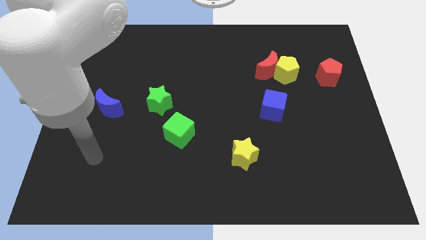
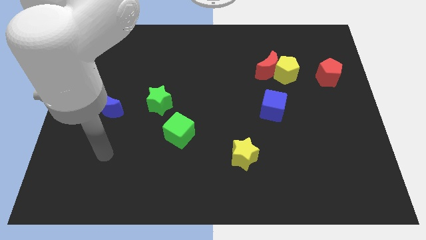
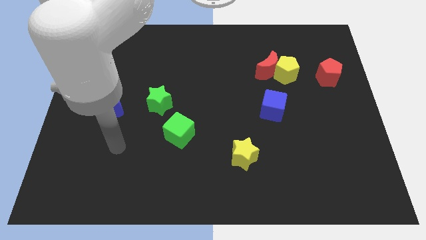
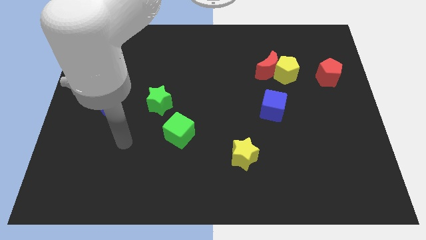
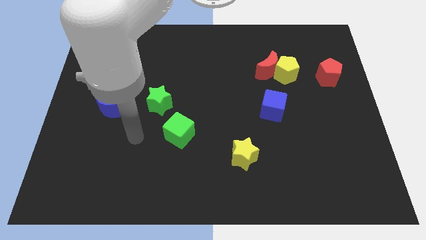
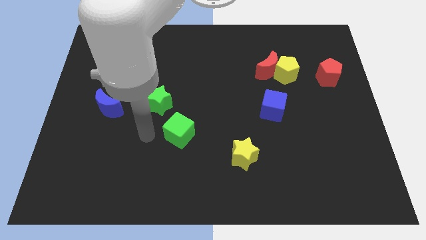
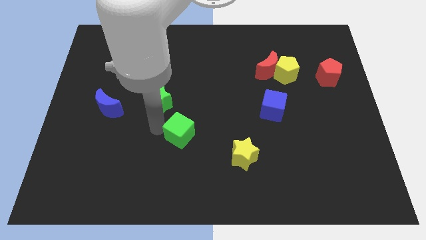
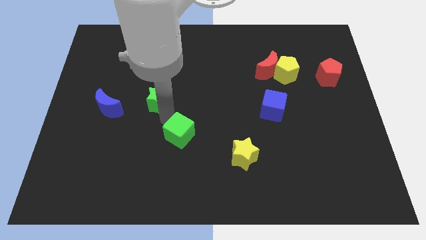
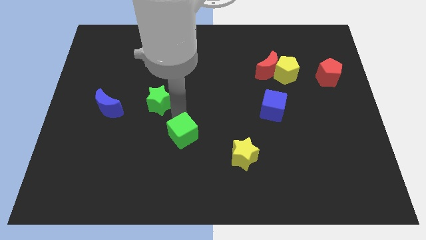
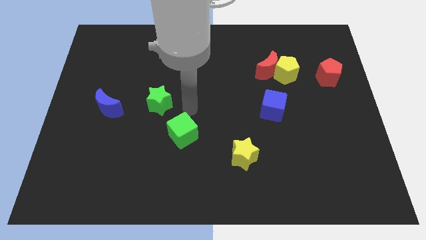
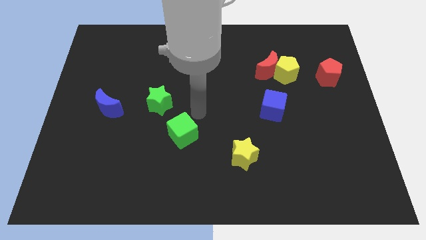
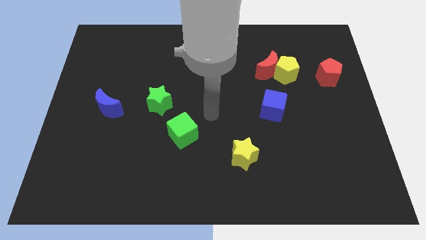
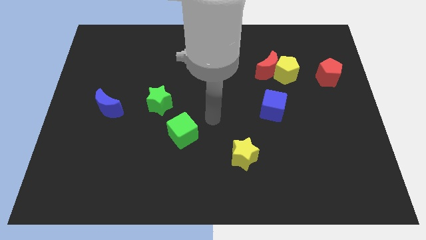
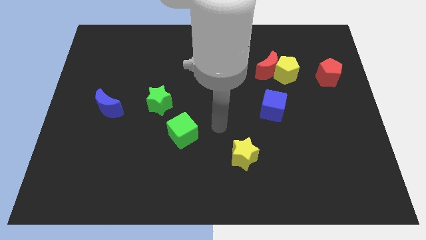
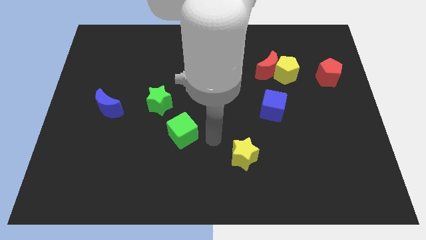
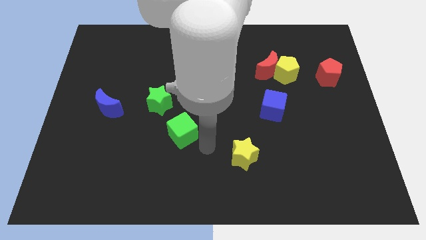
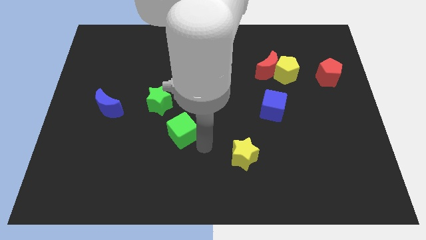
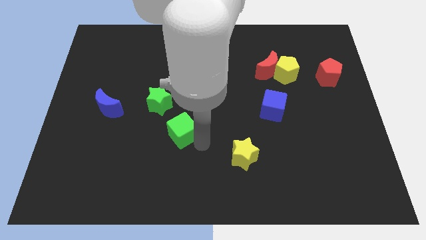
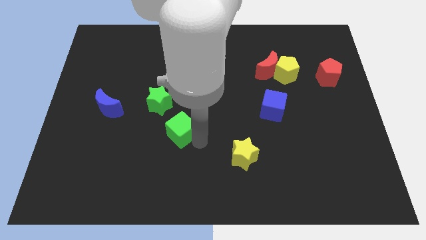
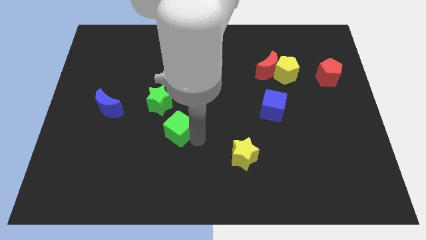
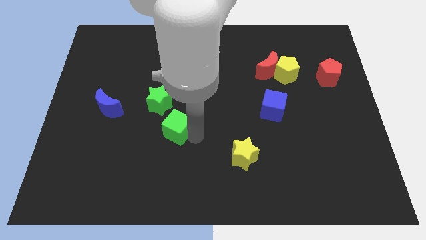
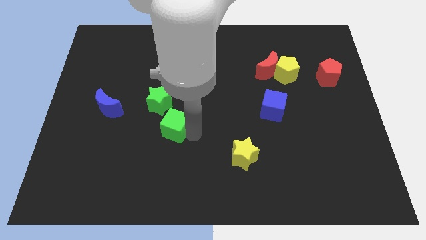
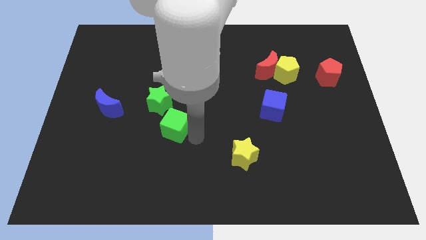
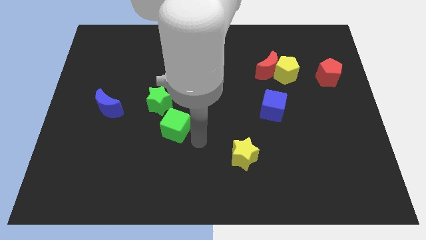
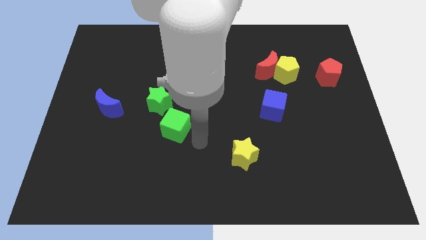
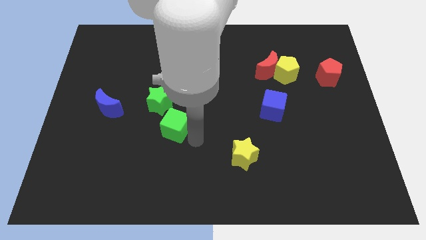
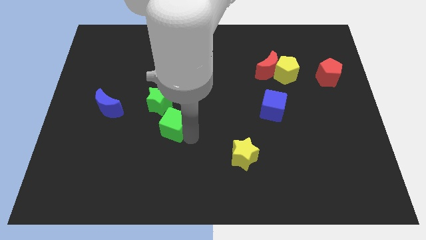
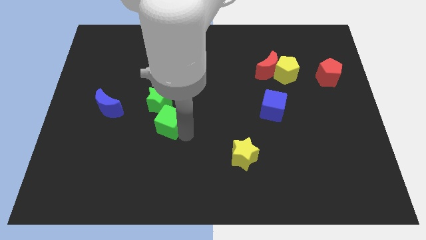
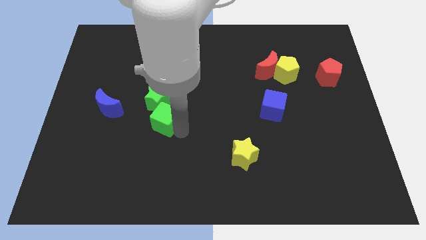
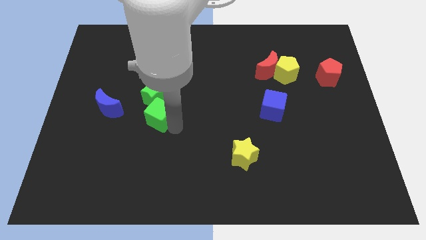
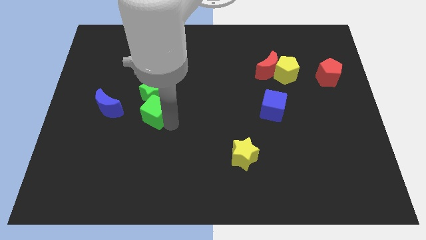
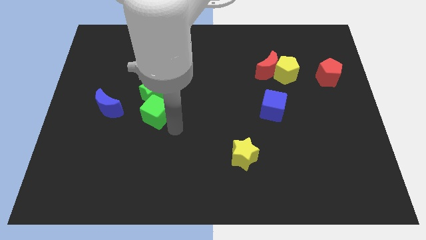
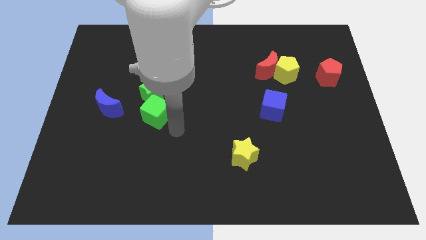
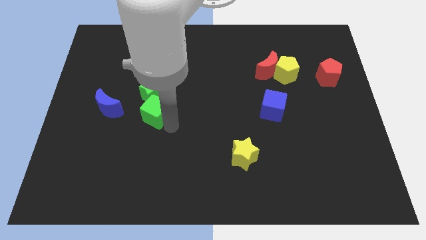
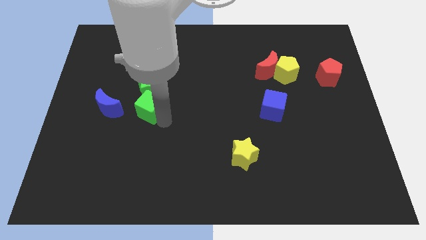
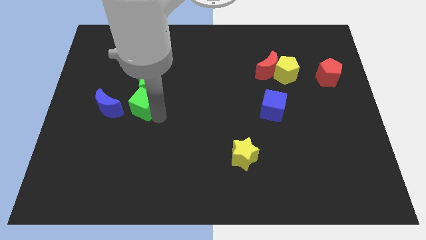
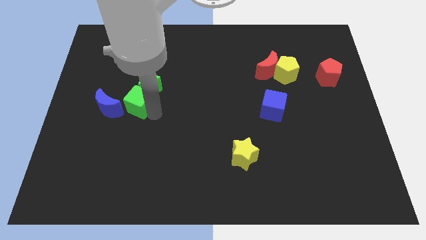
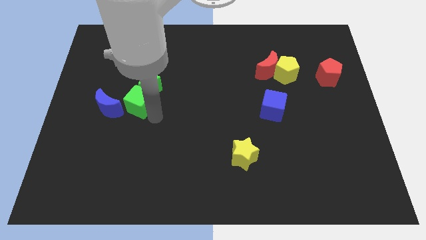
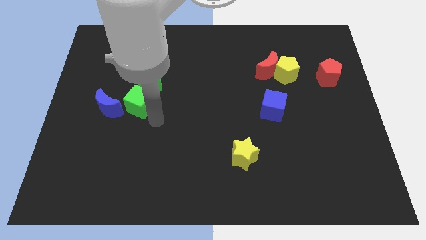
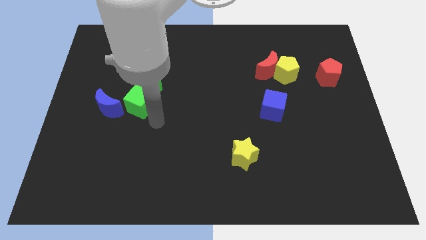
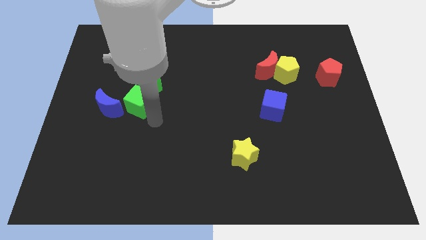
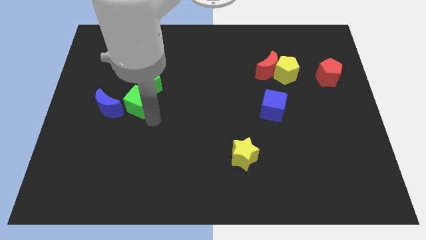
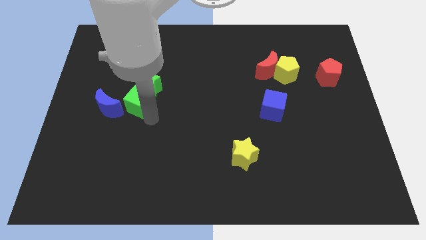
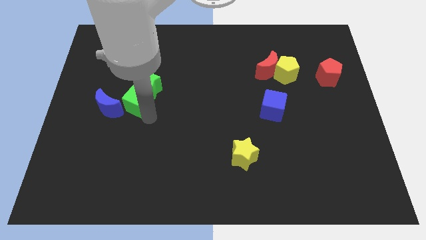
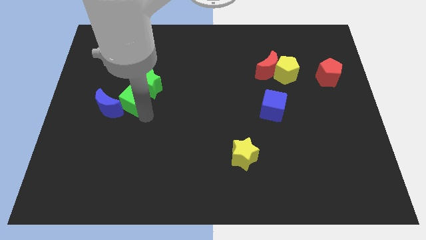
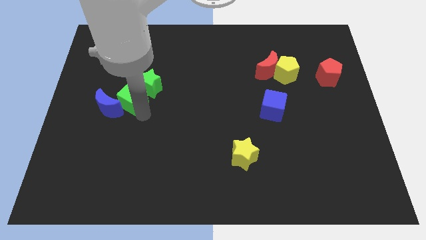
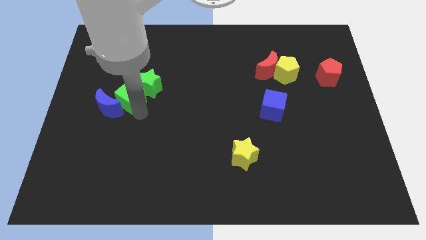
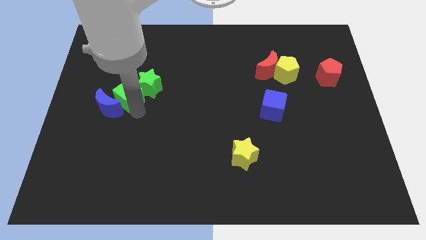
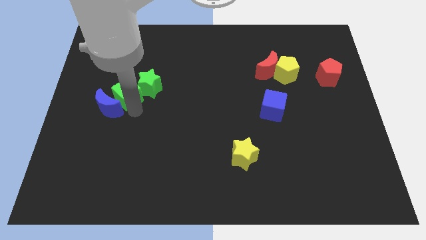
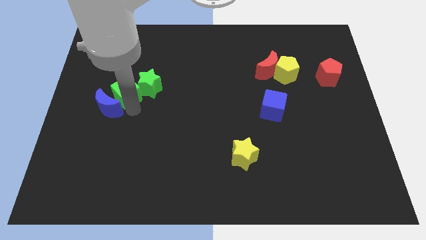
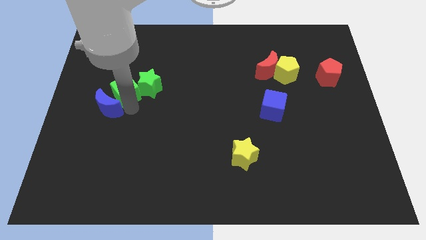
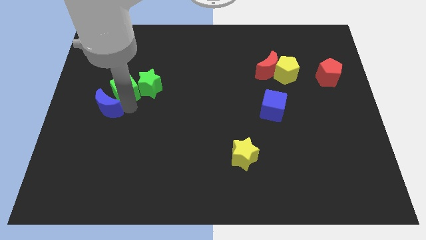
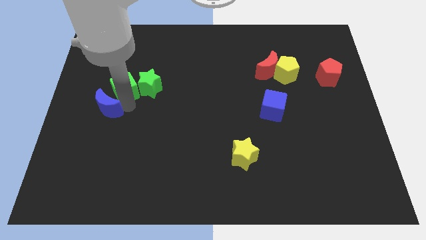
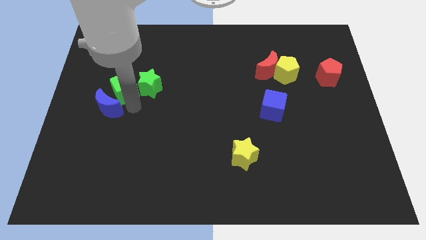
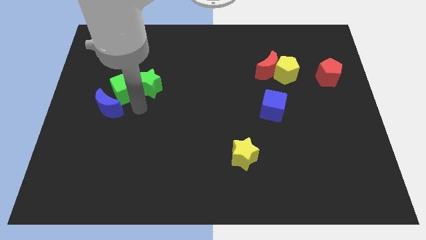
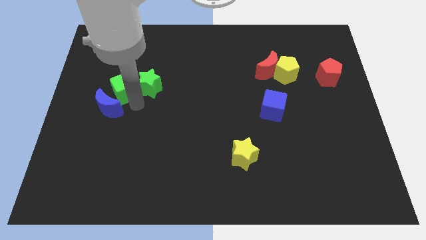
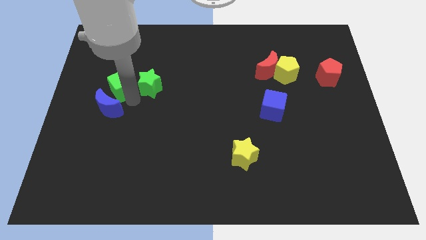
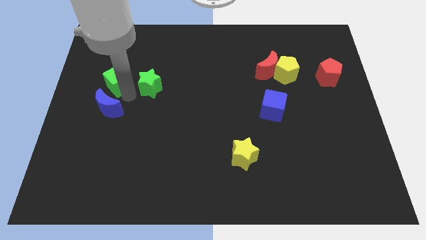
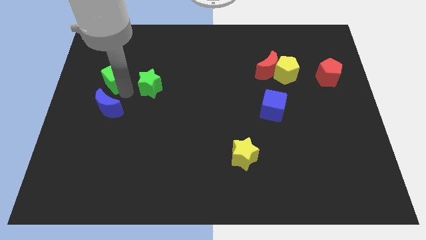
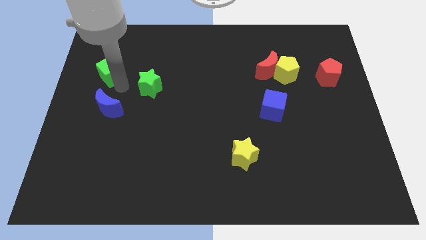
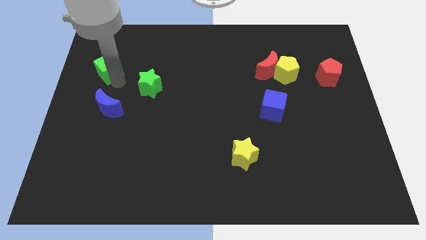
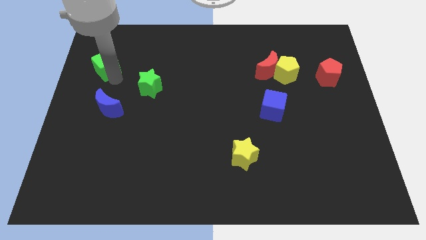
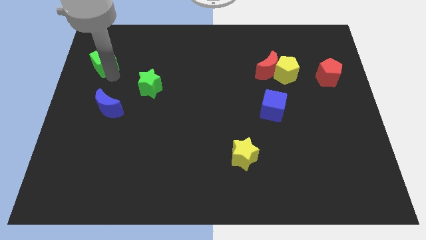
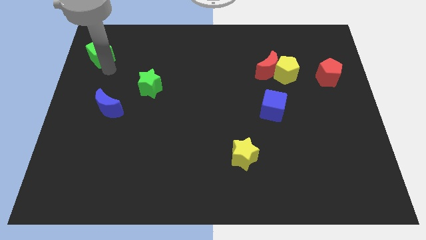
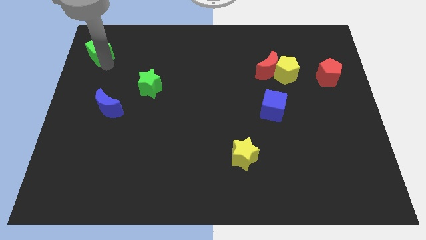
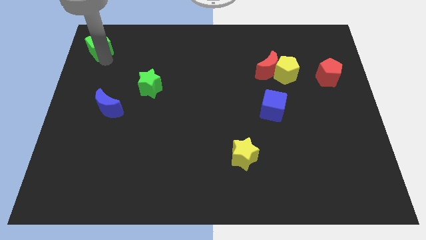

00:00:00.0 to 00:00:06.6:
slide the green cube to the top left
